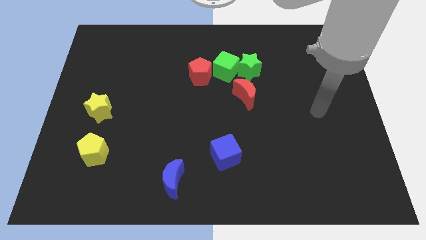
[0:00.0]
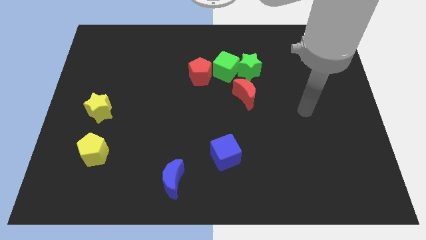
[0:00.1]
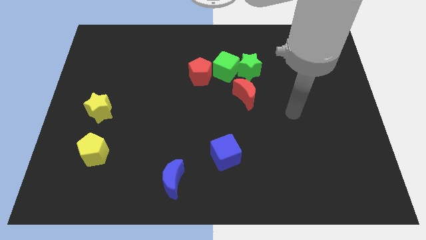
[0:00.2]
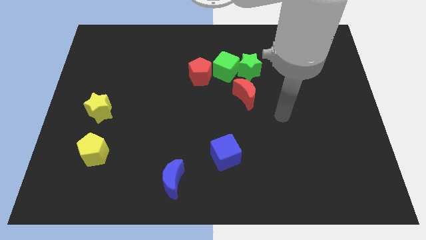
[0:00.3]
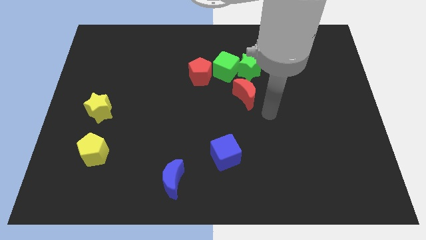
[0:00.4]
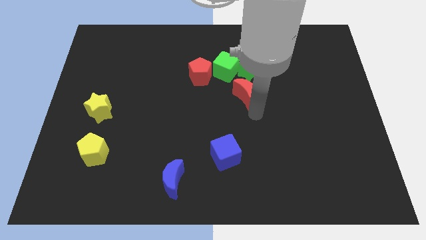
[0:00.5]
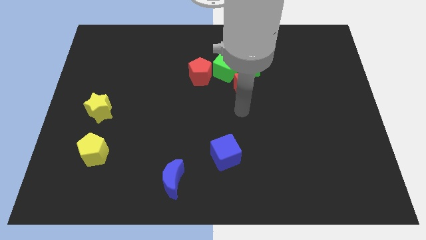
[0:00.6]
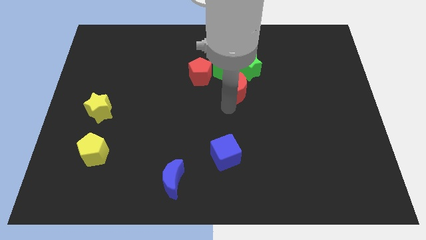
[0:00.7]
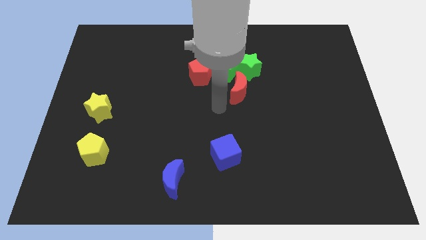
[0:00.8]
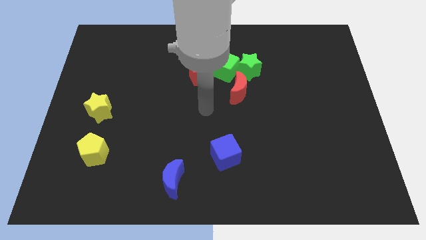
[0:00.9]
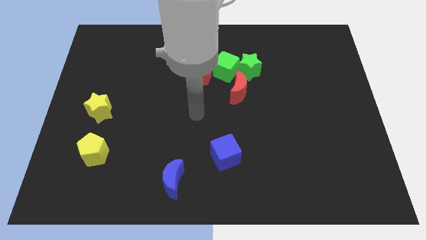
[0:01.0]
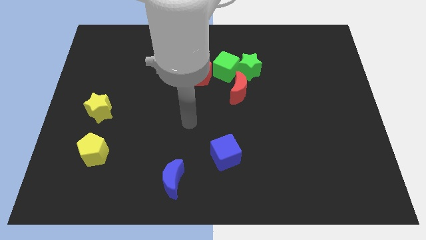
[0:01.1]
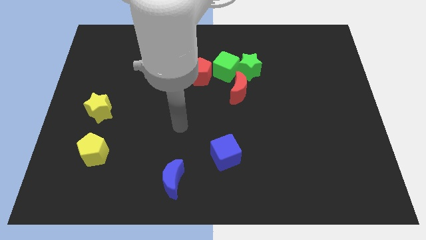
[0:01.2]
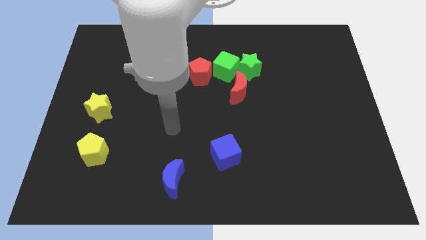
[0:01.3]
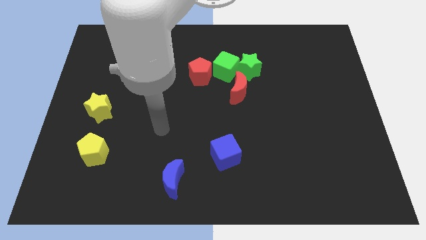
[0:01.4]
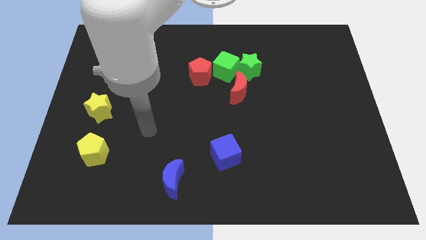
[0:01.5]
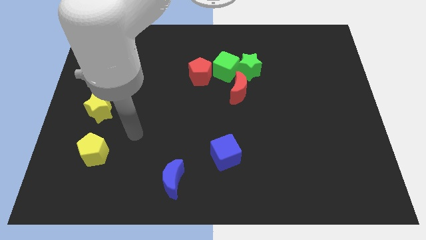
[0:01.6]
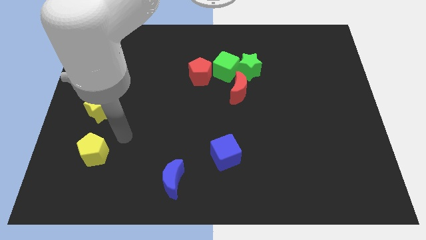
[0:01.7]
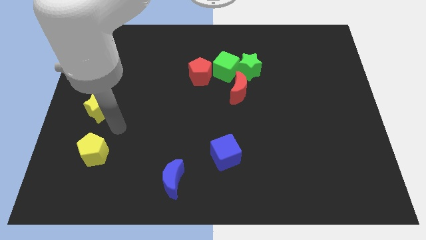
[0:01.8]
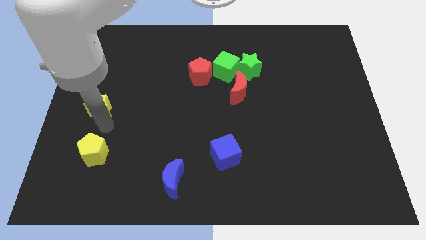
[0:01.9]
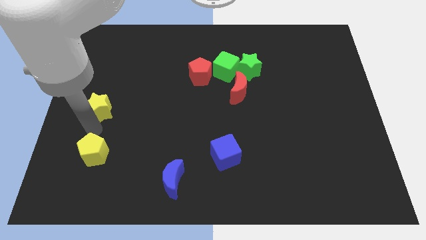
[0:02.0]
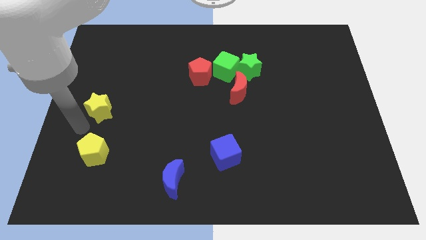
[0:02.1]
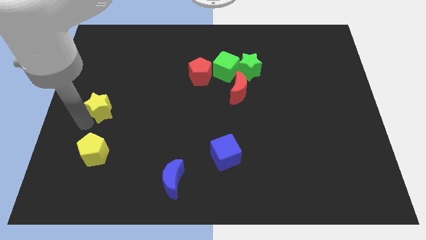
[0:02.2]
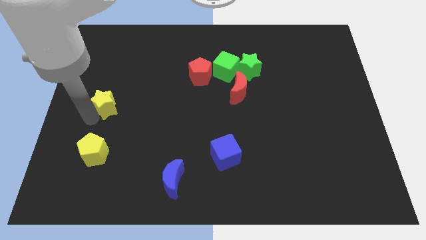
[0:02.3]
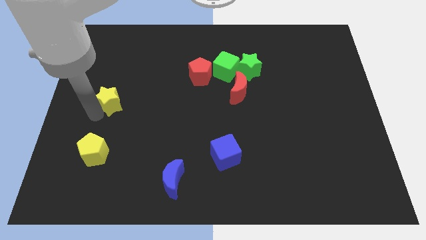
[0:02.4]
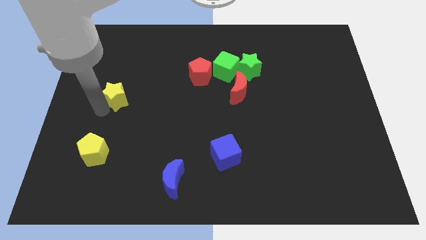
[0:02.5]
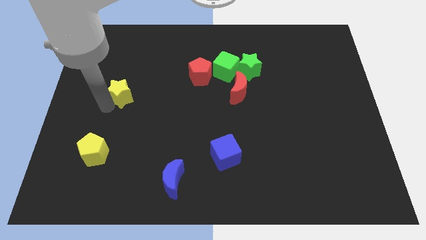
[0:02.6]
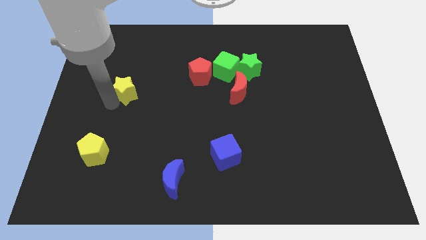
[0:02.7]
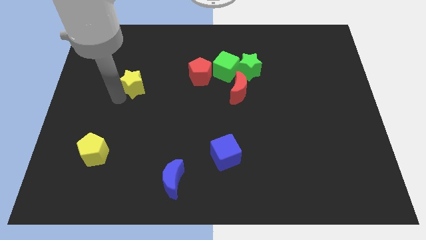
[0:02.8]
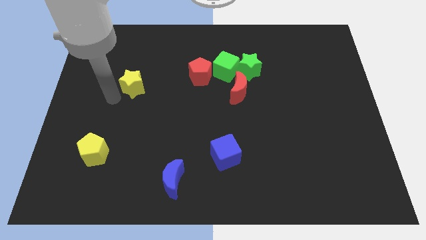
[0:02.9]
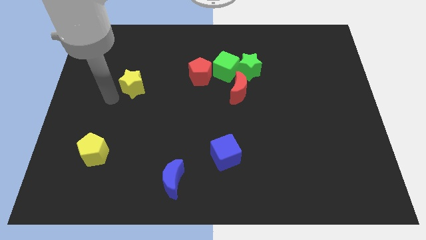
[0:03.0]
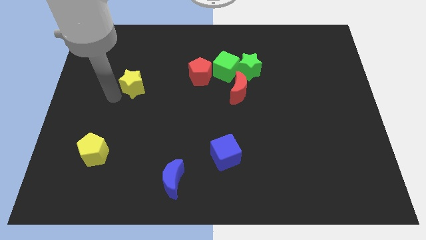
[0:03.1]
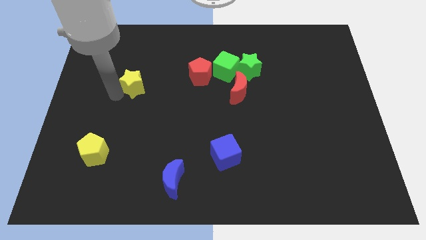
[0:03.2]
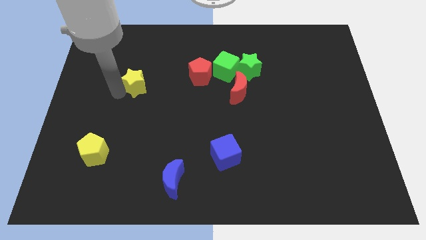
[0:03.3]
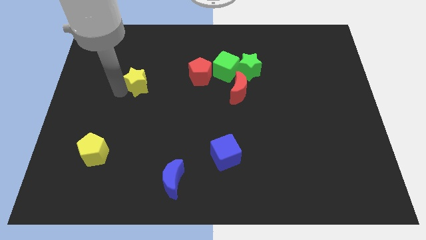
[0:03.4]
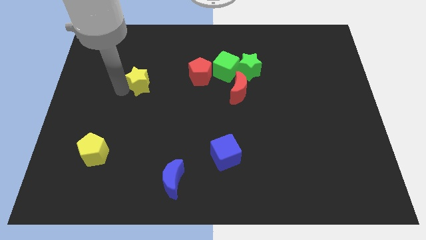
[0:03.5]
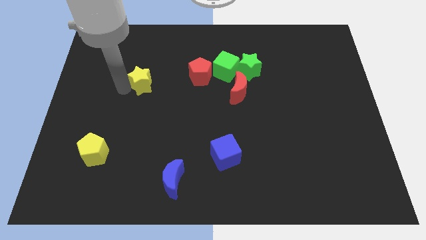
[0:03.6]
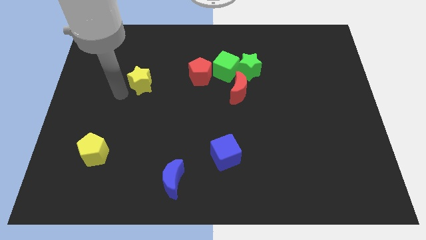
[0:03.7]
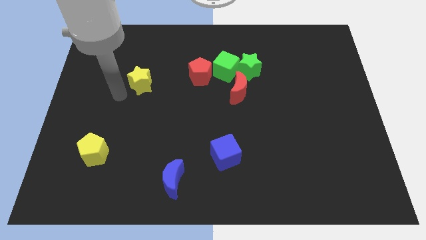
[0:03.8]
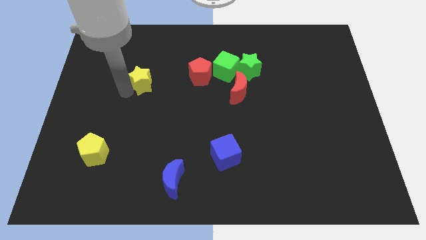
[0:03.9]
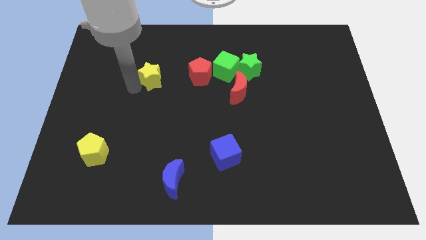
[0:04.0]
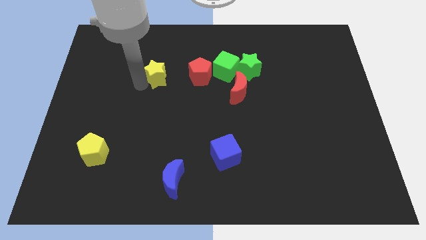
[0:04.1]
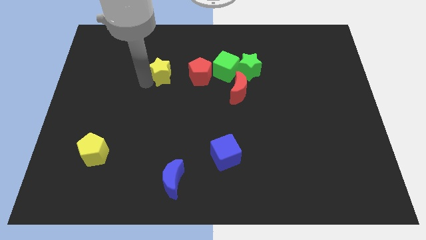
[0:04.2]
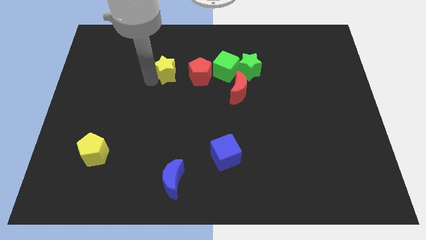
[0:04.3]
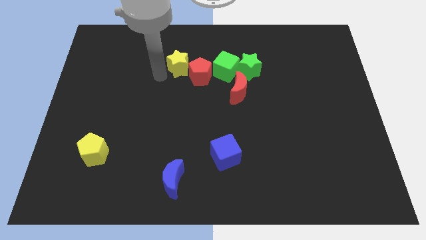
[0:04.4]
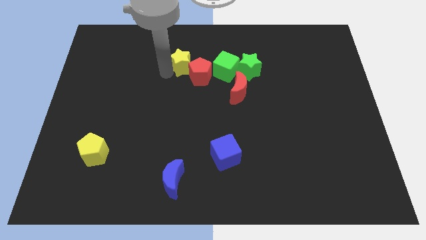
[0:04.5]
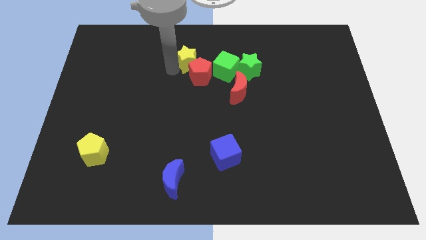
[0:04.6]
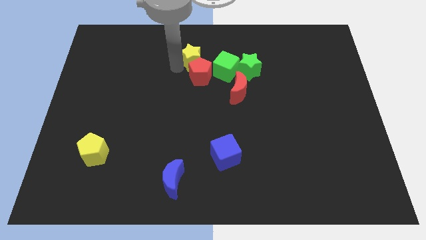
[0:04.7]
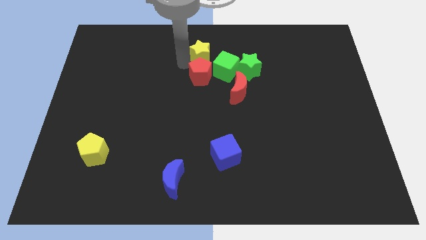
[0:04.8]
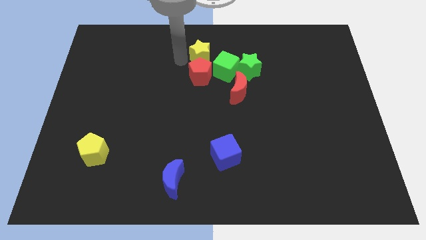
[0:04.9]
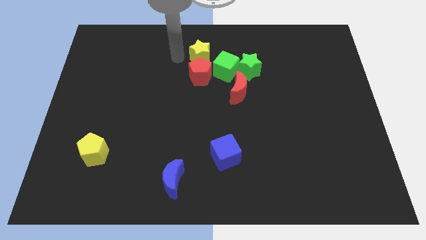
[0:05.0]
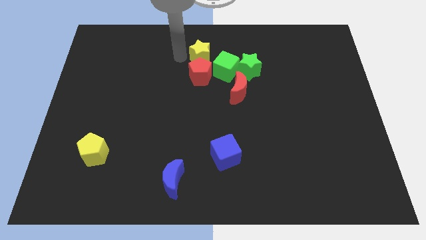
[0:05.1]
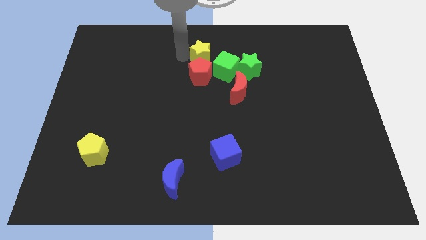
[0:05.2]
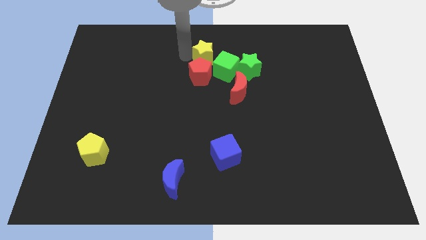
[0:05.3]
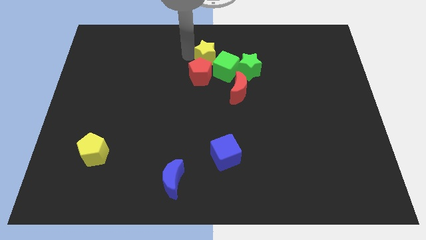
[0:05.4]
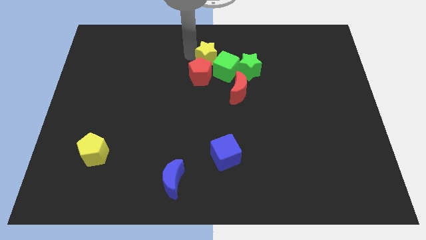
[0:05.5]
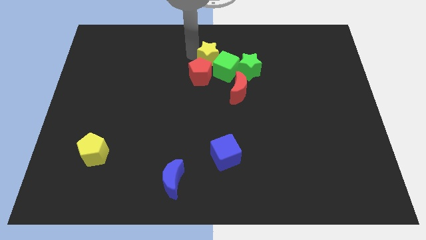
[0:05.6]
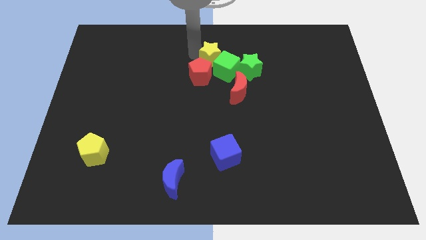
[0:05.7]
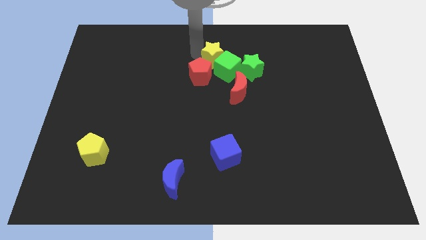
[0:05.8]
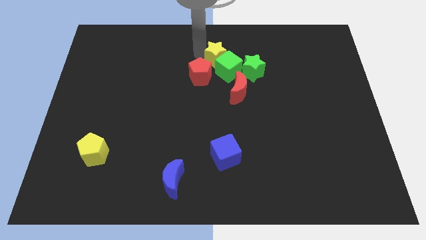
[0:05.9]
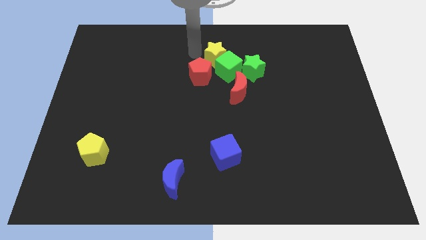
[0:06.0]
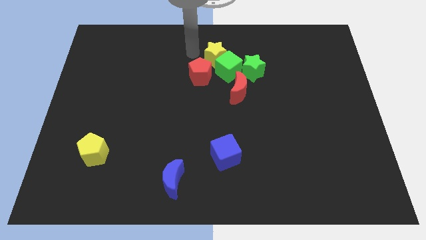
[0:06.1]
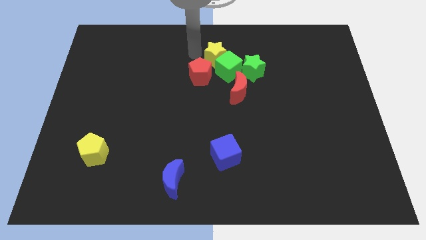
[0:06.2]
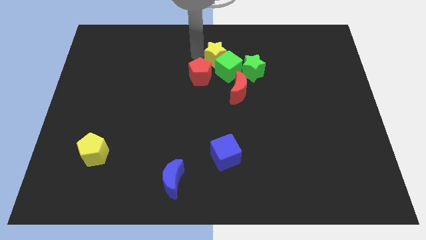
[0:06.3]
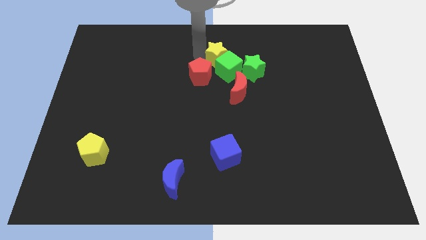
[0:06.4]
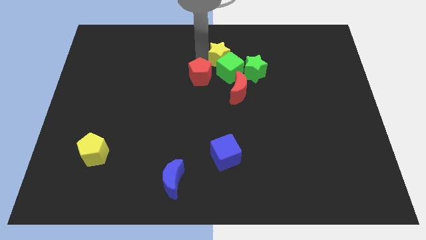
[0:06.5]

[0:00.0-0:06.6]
put the yellow star above the red moon

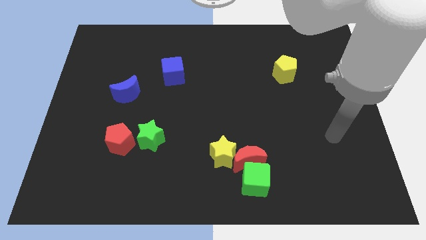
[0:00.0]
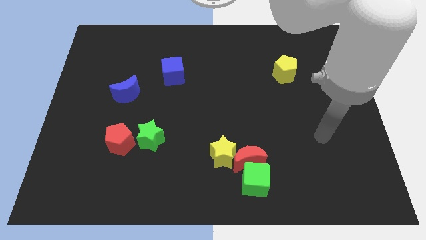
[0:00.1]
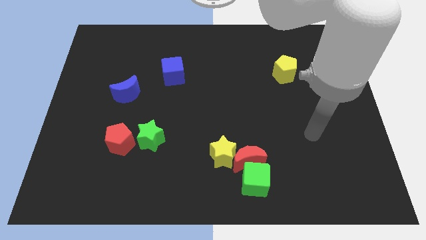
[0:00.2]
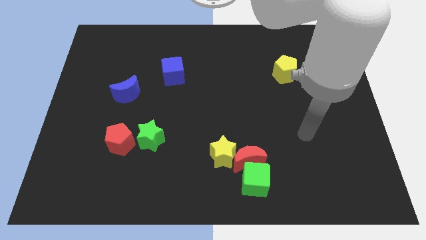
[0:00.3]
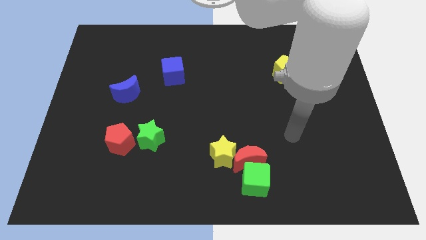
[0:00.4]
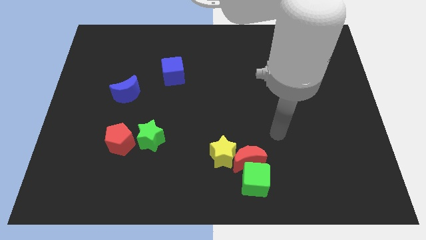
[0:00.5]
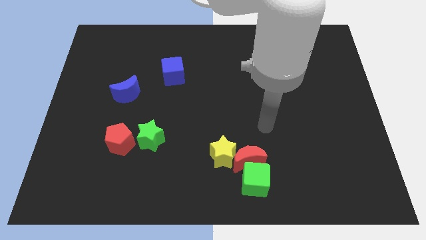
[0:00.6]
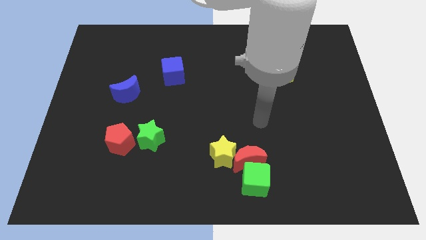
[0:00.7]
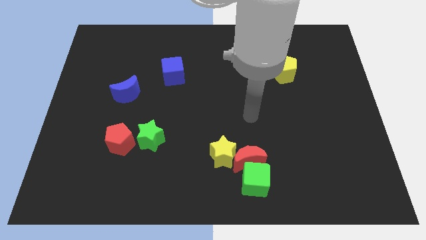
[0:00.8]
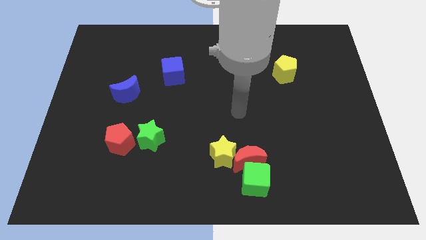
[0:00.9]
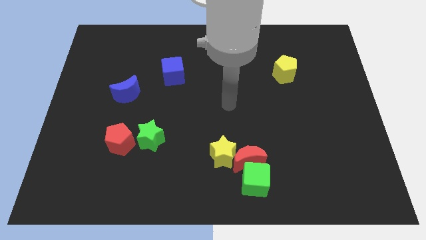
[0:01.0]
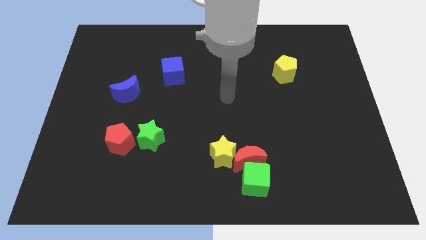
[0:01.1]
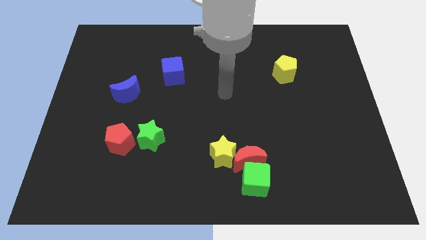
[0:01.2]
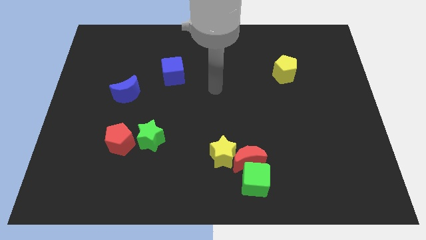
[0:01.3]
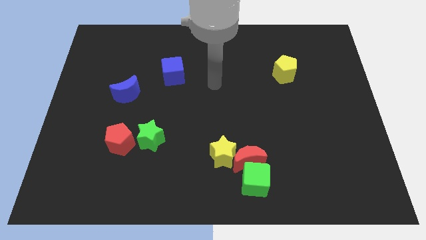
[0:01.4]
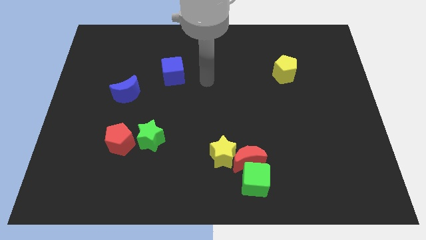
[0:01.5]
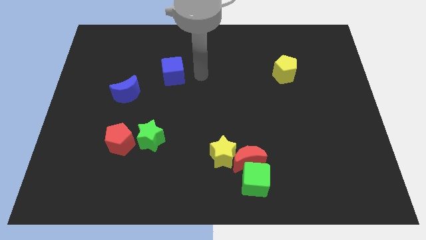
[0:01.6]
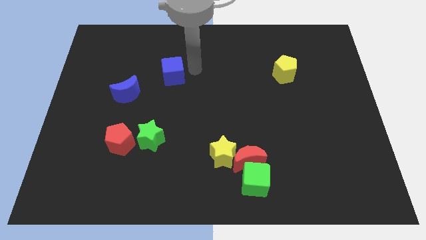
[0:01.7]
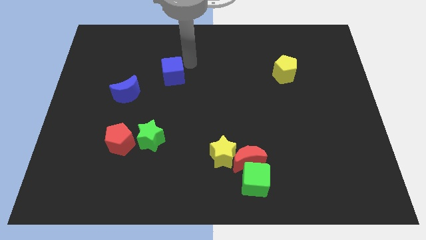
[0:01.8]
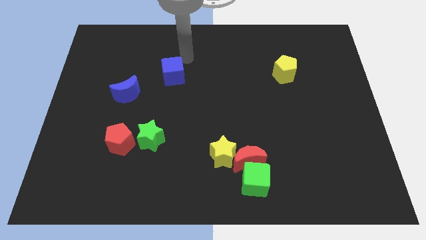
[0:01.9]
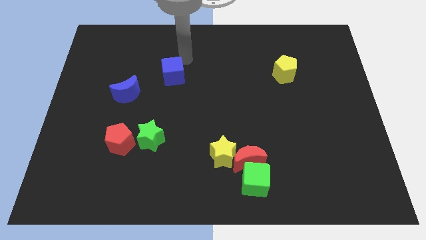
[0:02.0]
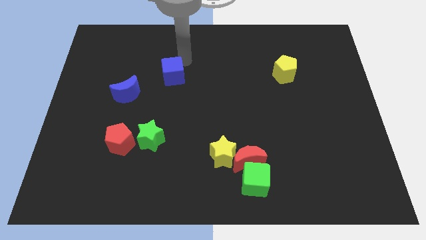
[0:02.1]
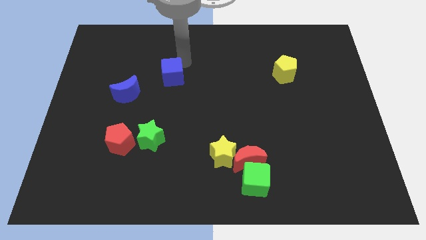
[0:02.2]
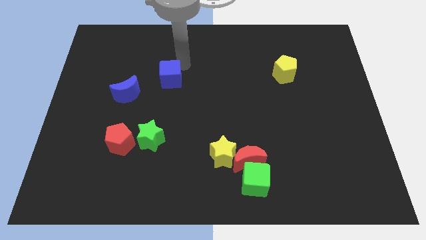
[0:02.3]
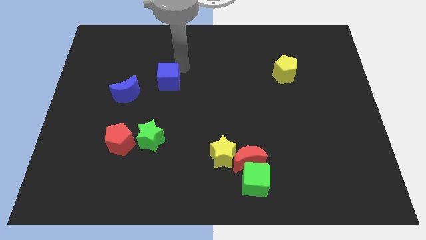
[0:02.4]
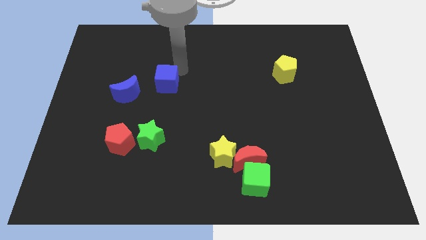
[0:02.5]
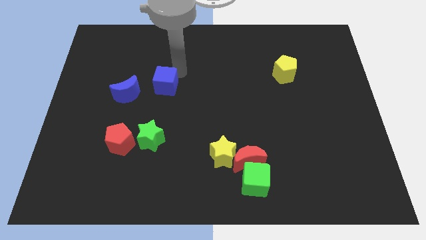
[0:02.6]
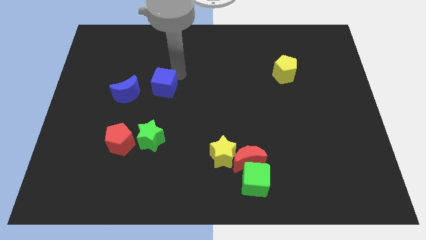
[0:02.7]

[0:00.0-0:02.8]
put the blue cube to the top side of the green star
